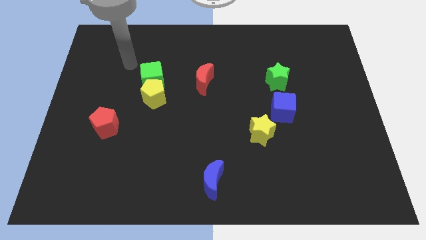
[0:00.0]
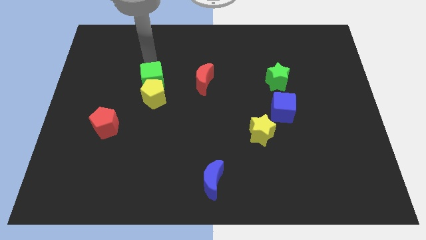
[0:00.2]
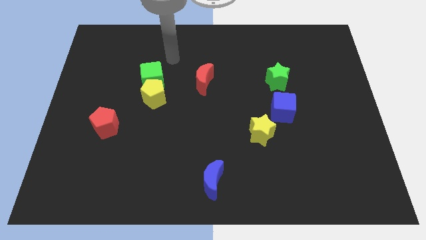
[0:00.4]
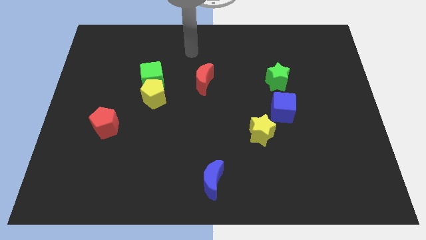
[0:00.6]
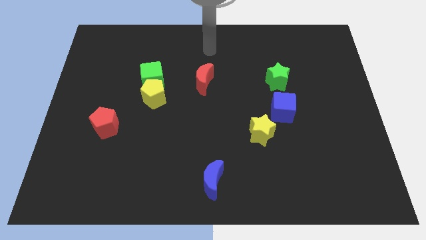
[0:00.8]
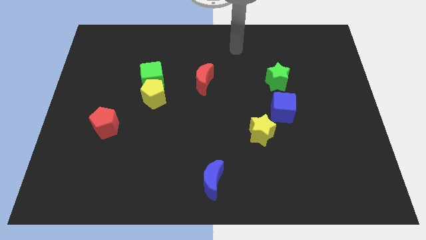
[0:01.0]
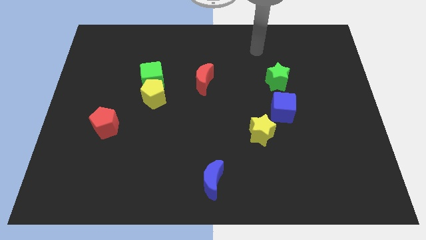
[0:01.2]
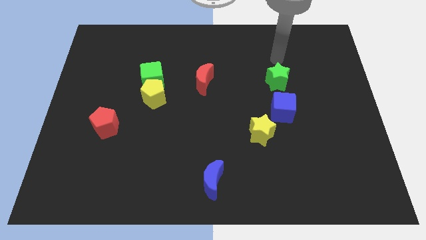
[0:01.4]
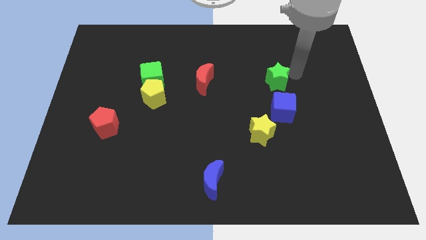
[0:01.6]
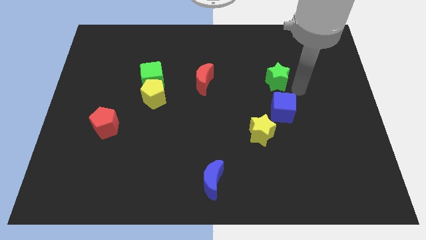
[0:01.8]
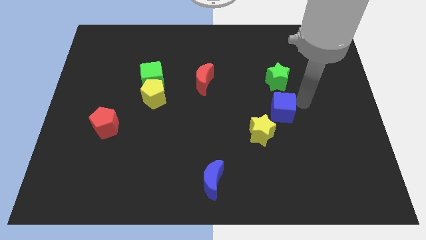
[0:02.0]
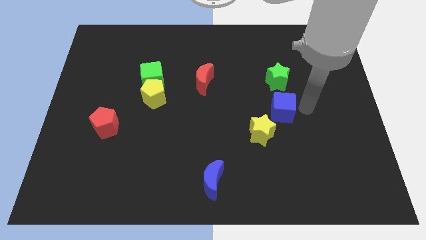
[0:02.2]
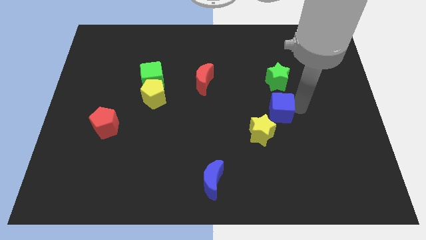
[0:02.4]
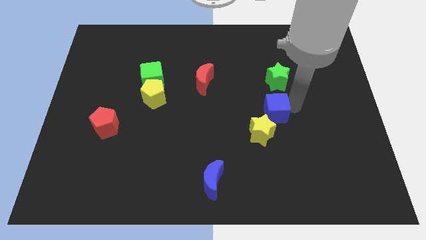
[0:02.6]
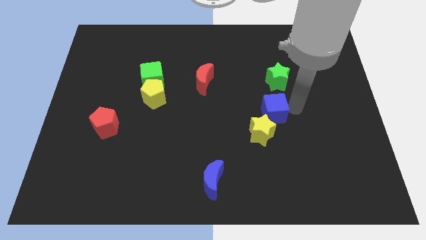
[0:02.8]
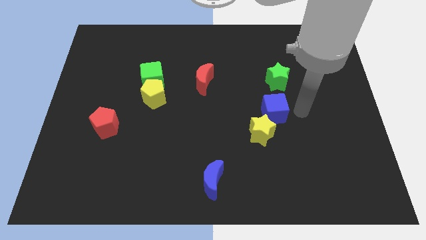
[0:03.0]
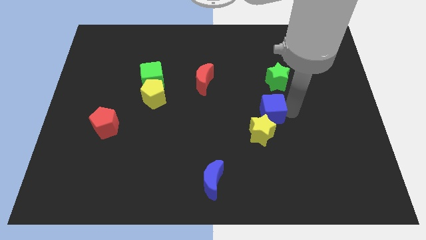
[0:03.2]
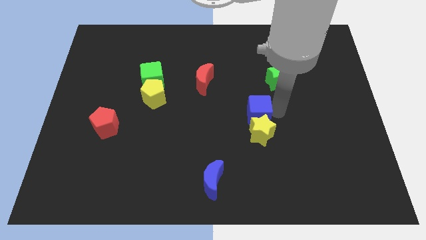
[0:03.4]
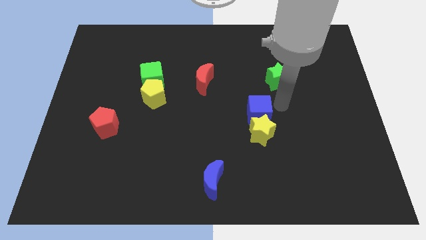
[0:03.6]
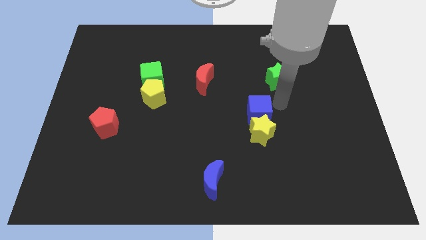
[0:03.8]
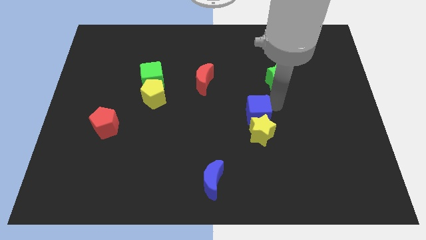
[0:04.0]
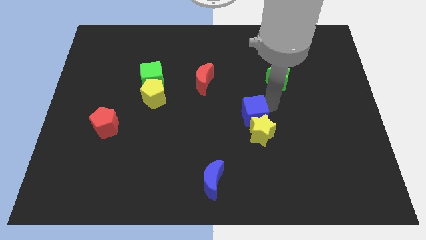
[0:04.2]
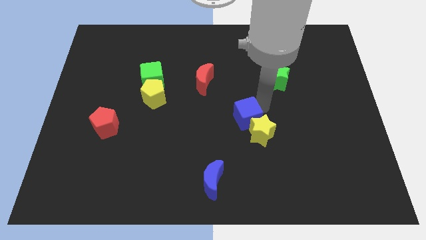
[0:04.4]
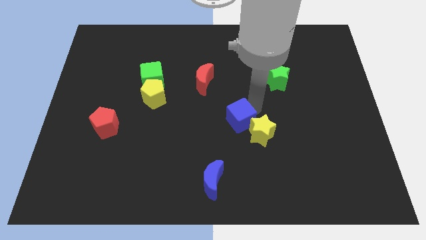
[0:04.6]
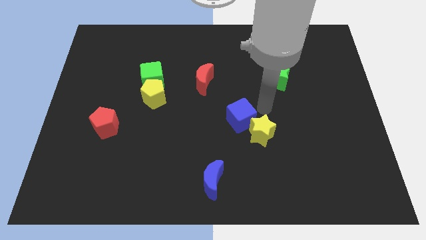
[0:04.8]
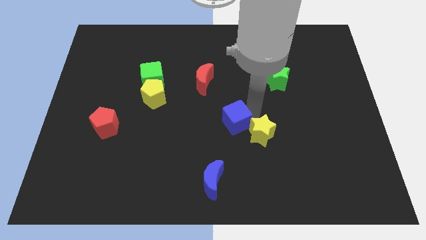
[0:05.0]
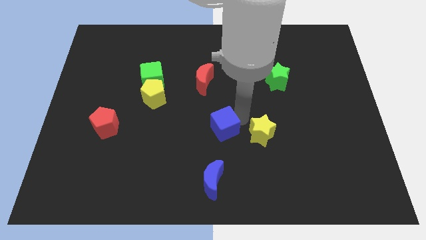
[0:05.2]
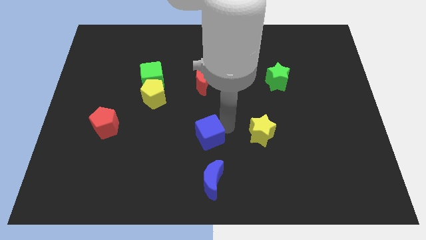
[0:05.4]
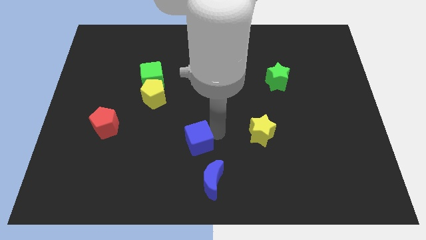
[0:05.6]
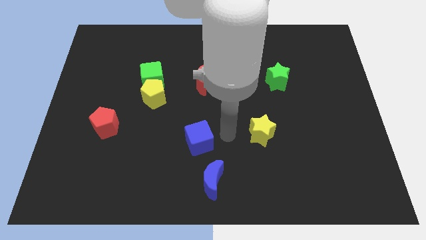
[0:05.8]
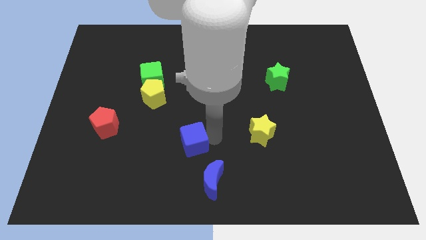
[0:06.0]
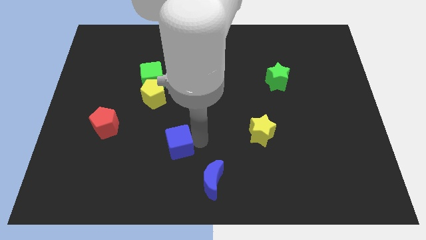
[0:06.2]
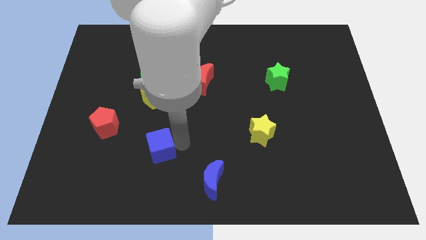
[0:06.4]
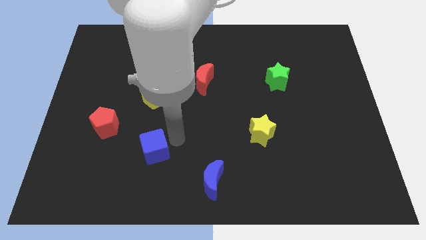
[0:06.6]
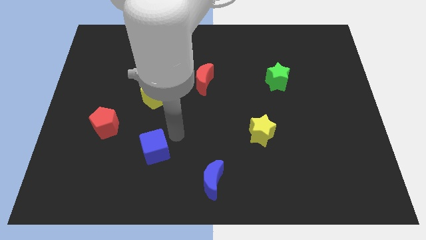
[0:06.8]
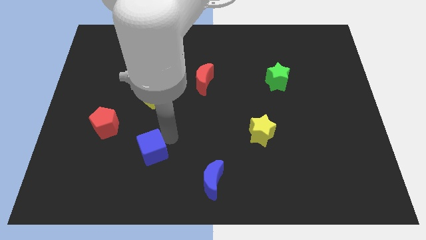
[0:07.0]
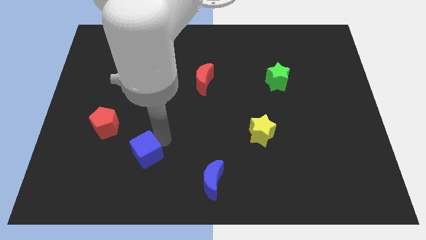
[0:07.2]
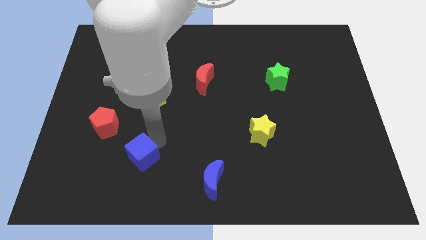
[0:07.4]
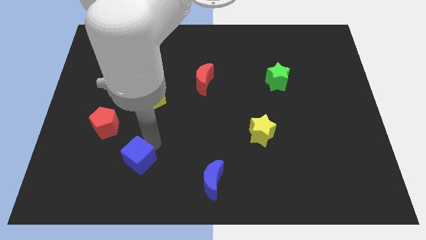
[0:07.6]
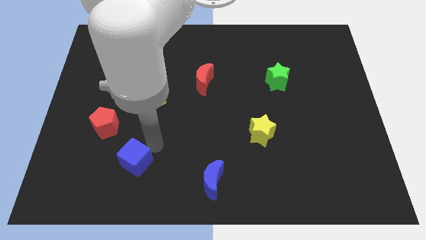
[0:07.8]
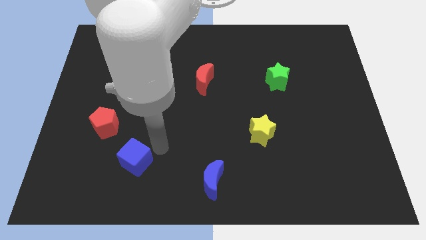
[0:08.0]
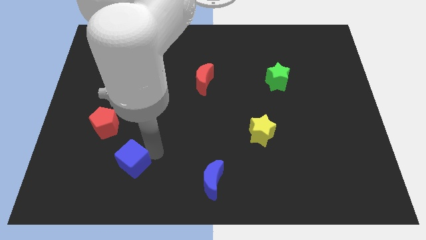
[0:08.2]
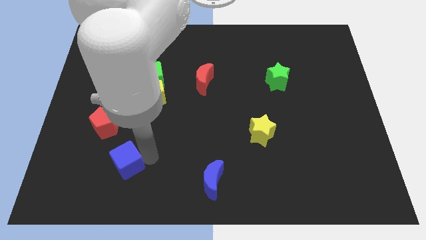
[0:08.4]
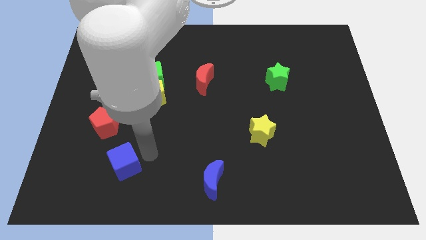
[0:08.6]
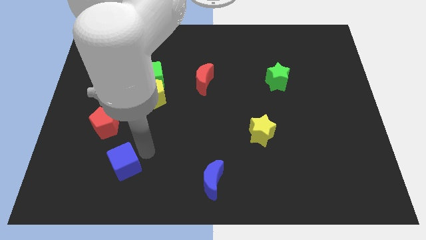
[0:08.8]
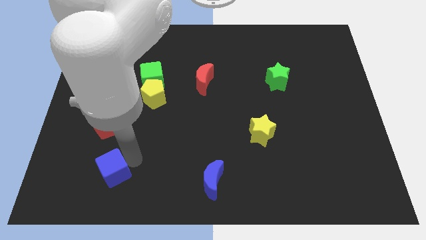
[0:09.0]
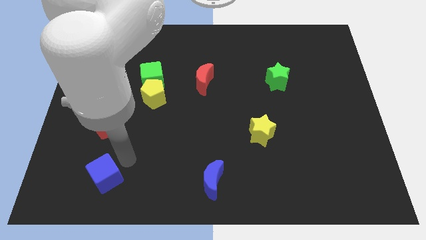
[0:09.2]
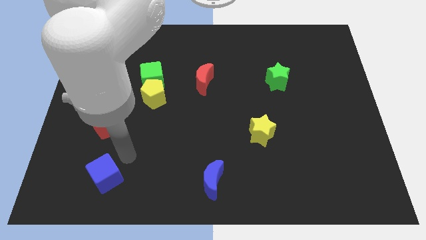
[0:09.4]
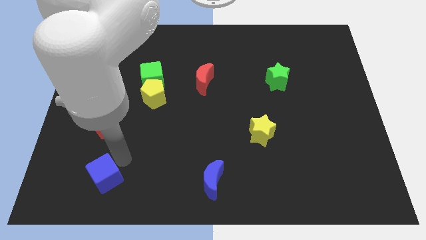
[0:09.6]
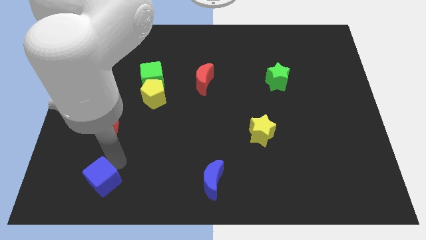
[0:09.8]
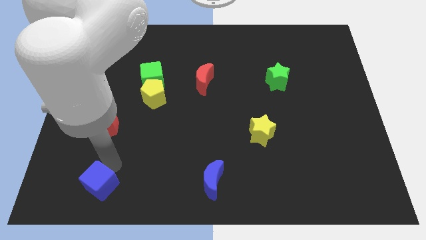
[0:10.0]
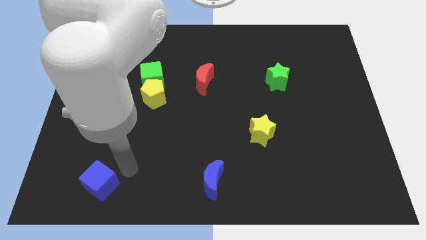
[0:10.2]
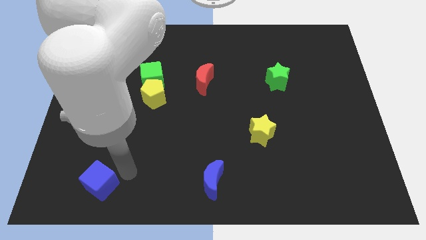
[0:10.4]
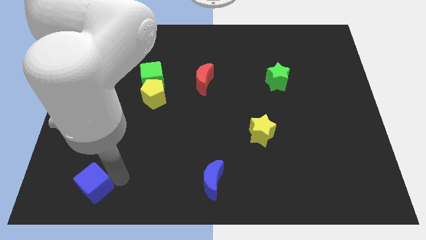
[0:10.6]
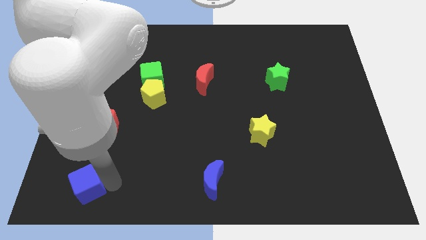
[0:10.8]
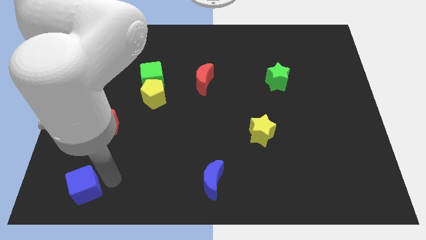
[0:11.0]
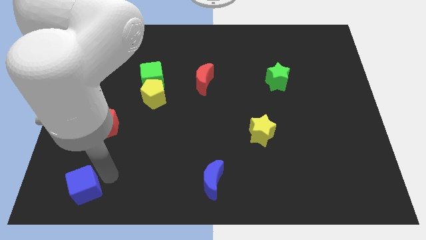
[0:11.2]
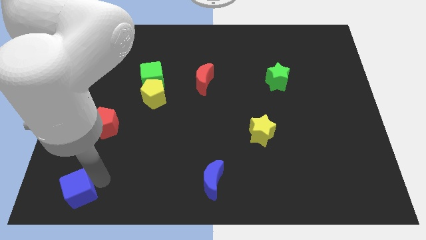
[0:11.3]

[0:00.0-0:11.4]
put the blue cube to the bottom left

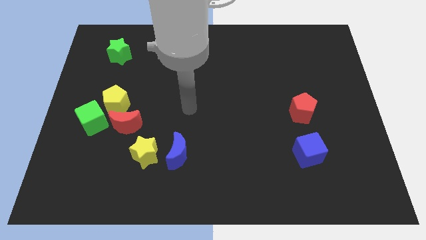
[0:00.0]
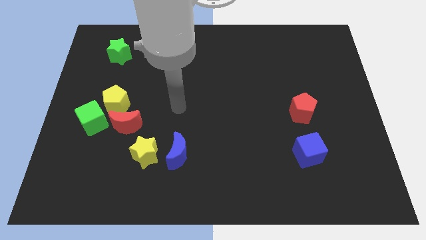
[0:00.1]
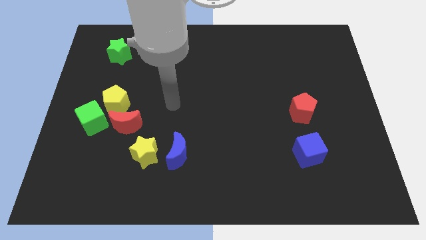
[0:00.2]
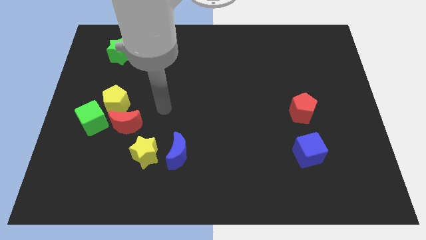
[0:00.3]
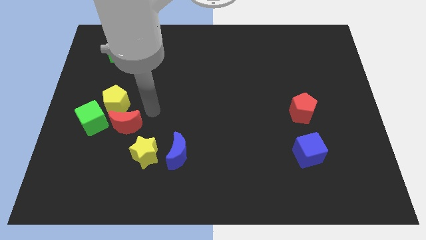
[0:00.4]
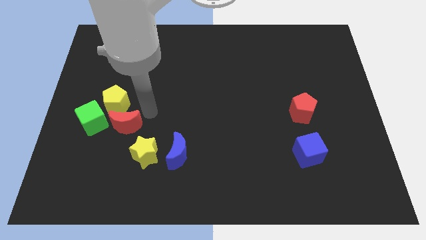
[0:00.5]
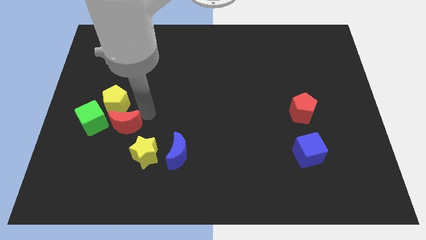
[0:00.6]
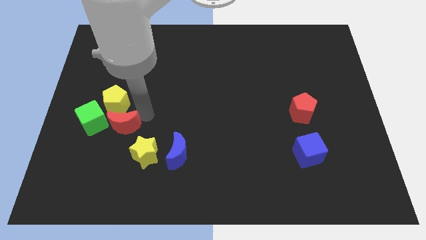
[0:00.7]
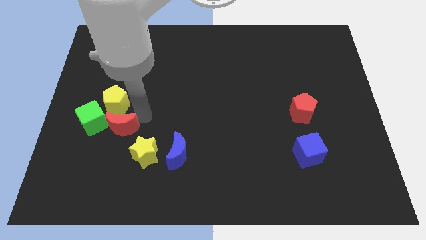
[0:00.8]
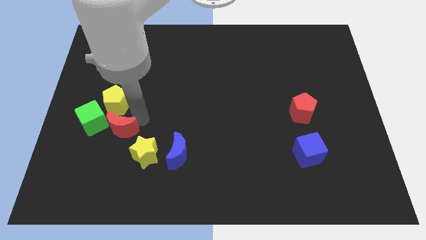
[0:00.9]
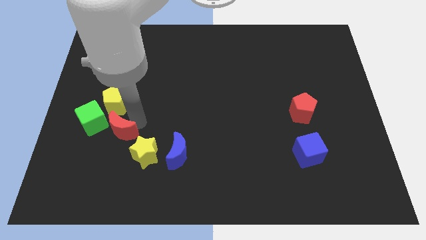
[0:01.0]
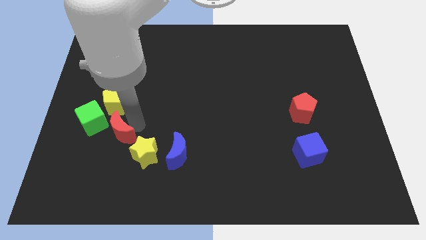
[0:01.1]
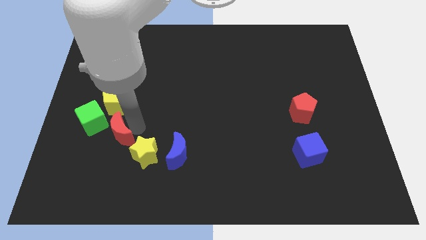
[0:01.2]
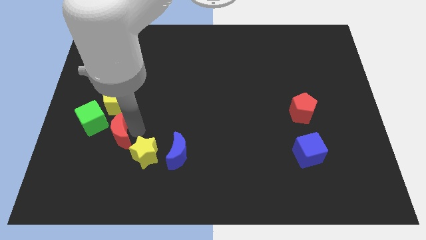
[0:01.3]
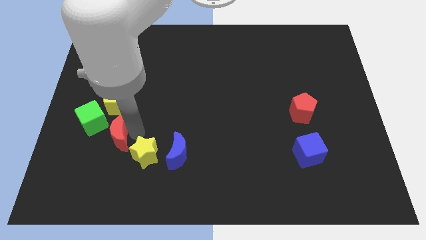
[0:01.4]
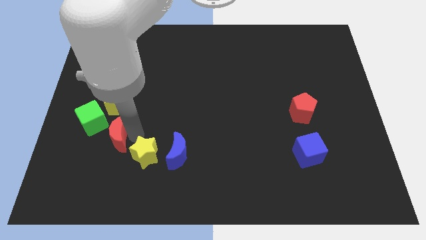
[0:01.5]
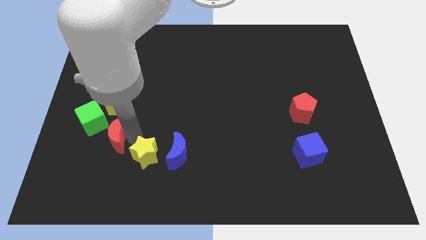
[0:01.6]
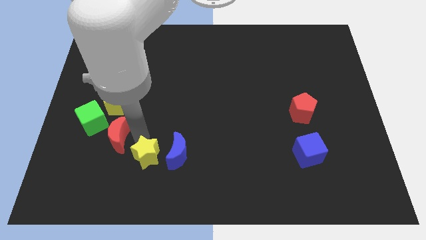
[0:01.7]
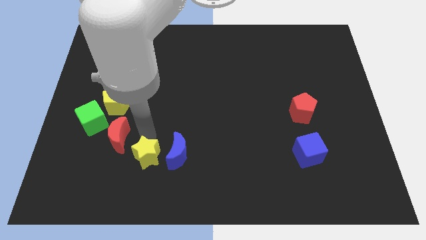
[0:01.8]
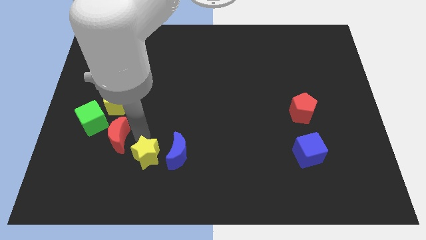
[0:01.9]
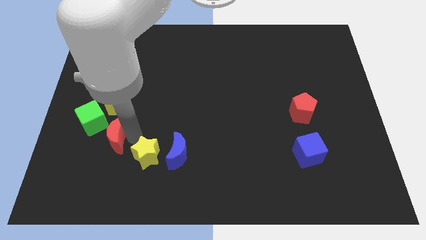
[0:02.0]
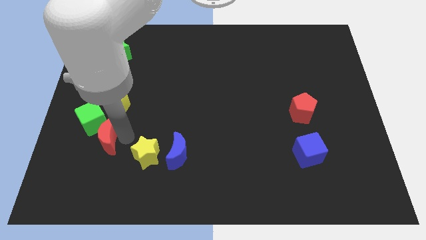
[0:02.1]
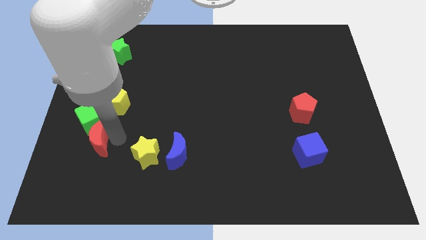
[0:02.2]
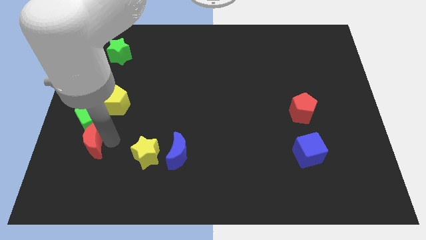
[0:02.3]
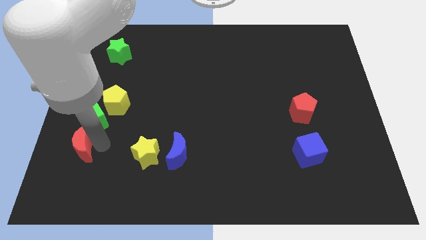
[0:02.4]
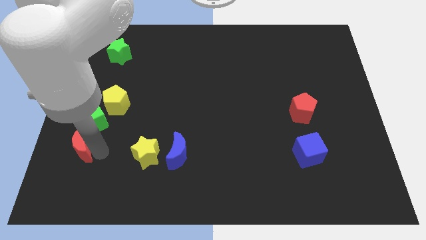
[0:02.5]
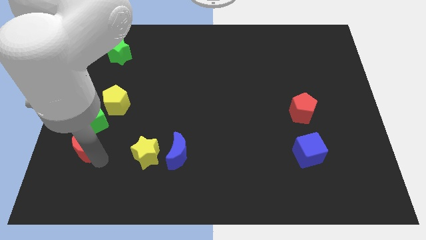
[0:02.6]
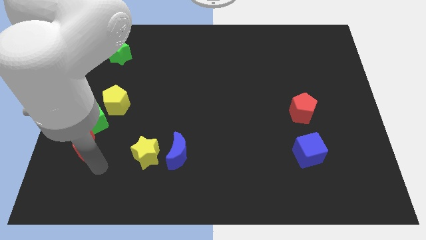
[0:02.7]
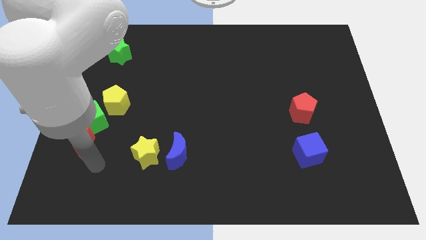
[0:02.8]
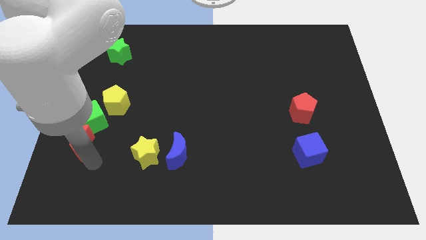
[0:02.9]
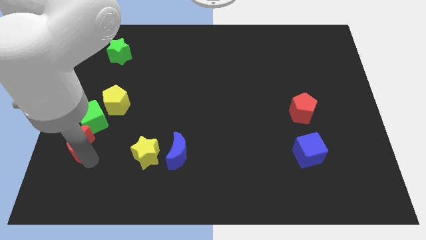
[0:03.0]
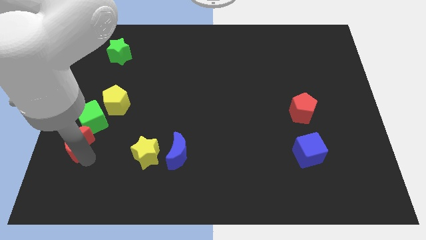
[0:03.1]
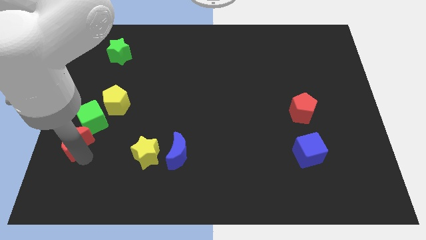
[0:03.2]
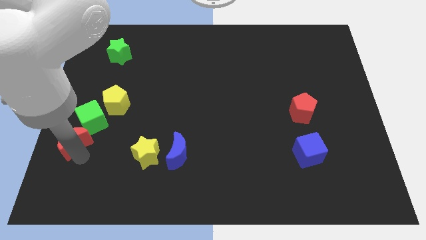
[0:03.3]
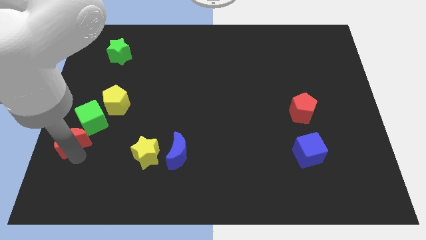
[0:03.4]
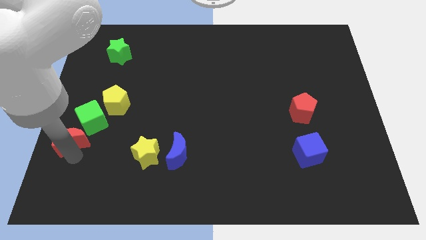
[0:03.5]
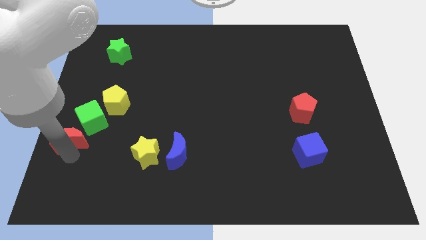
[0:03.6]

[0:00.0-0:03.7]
put the red moon to the center left
